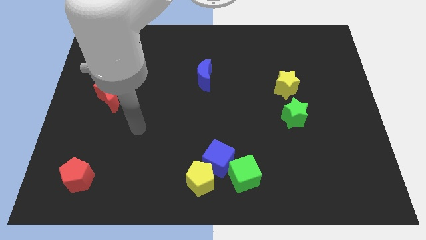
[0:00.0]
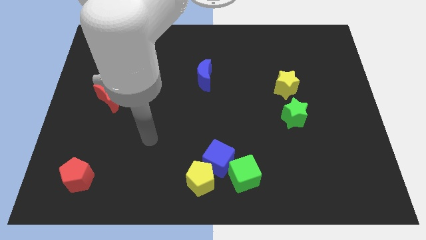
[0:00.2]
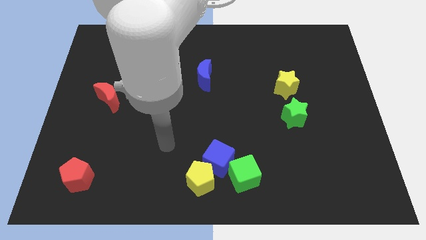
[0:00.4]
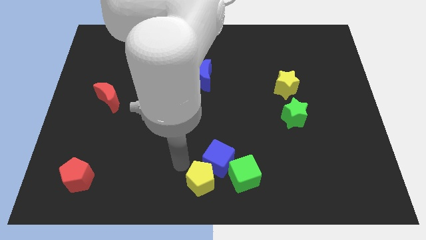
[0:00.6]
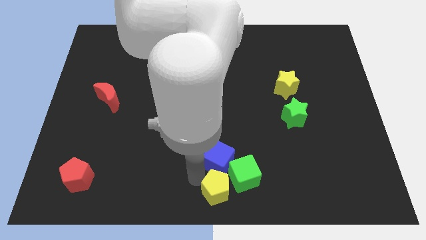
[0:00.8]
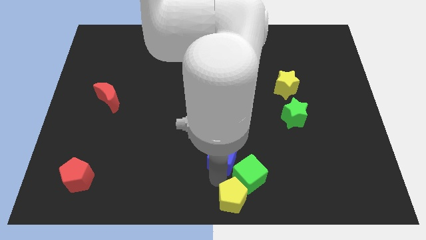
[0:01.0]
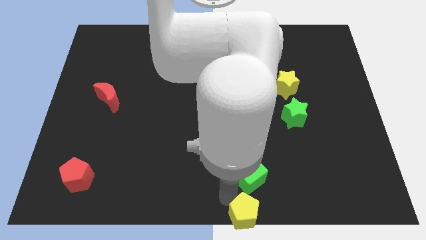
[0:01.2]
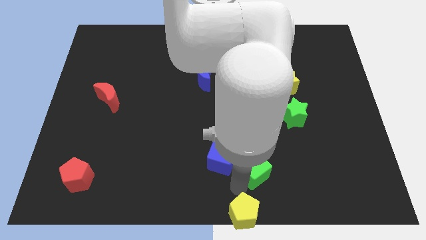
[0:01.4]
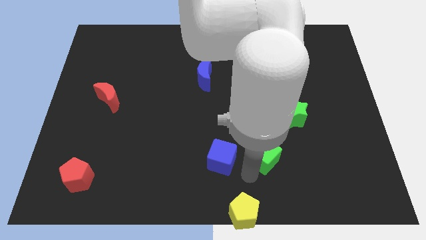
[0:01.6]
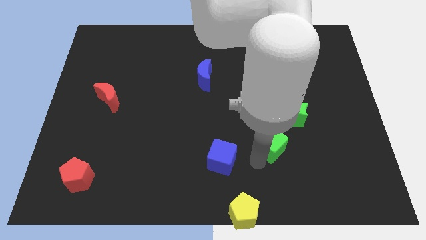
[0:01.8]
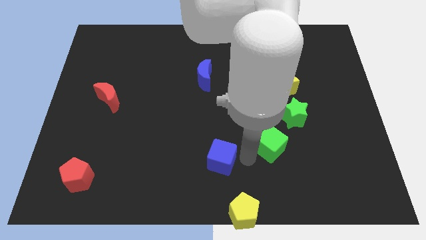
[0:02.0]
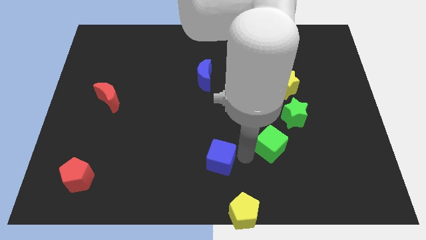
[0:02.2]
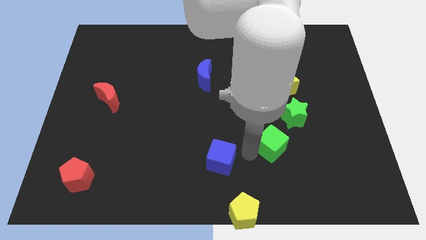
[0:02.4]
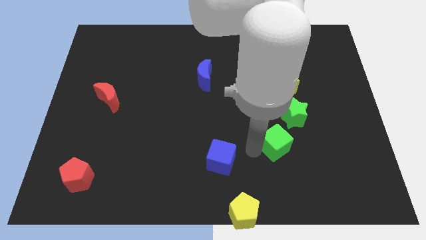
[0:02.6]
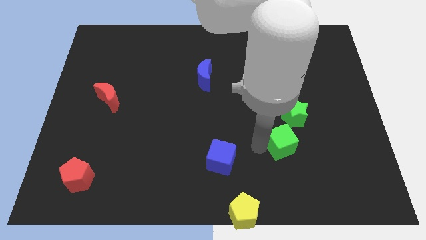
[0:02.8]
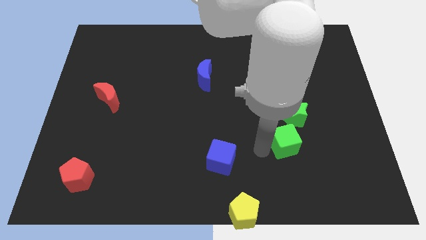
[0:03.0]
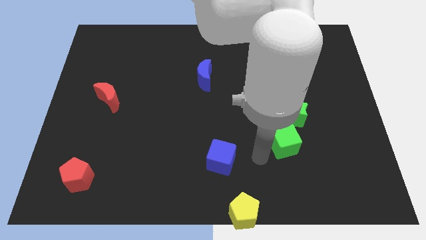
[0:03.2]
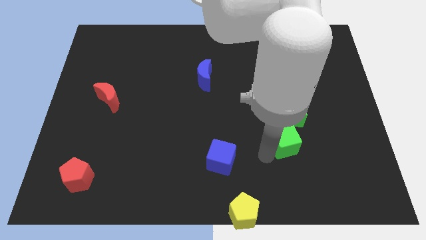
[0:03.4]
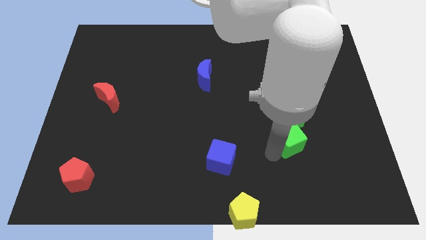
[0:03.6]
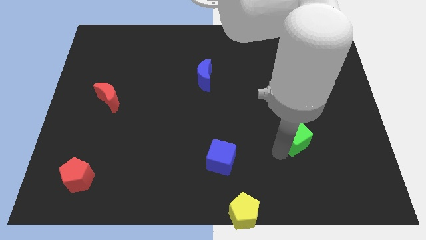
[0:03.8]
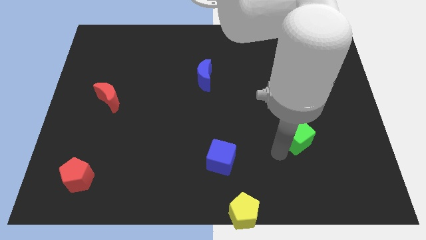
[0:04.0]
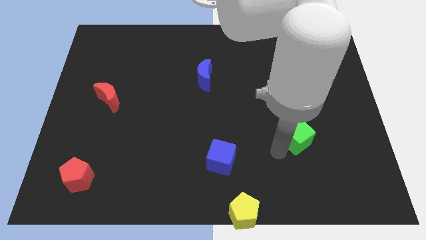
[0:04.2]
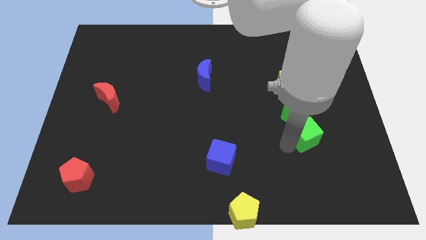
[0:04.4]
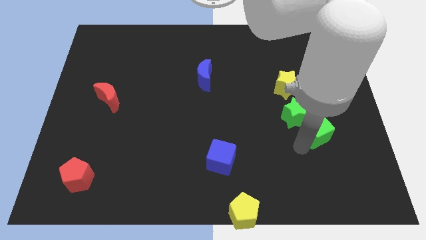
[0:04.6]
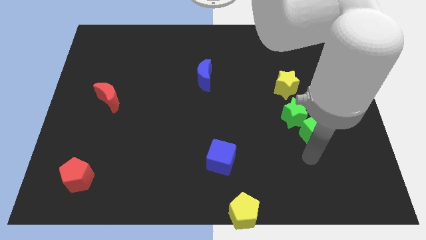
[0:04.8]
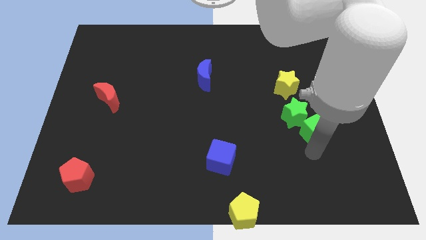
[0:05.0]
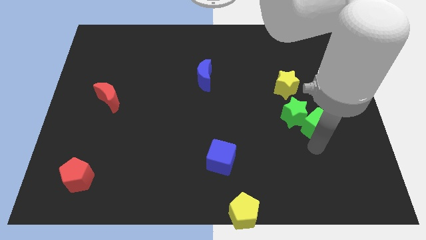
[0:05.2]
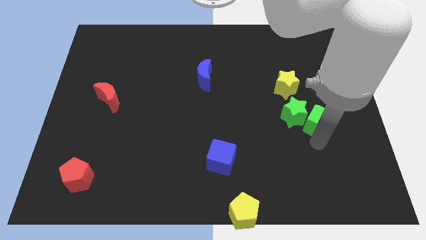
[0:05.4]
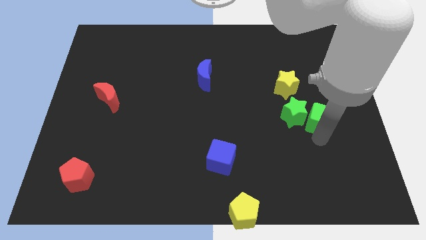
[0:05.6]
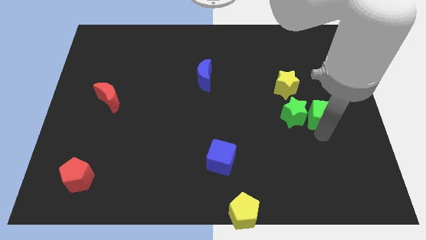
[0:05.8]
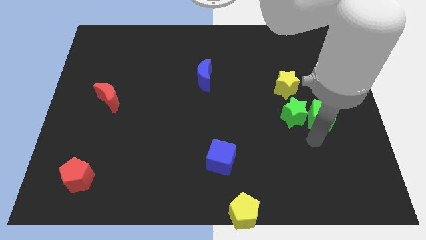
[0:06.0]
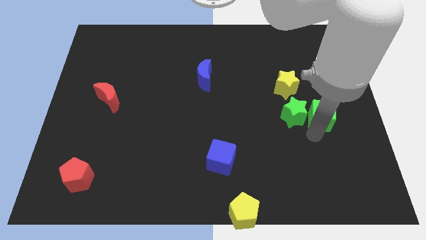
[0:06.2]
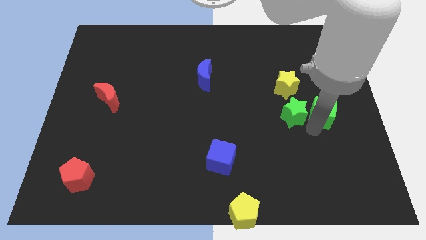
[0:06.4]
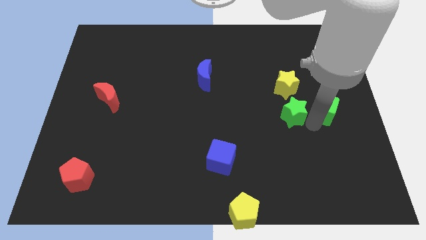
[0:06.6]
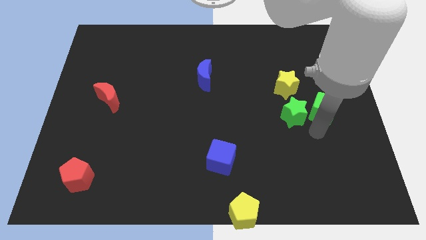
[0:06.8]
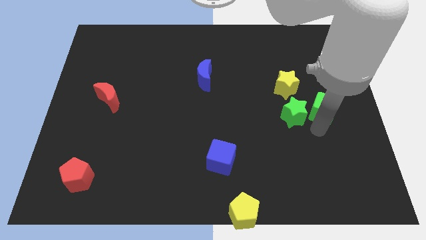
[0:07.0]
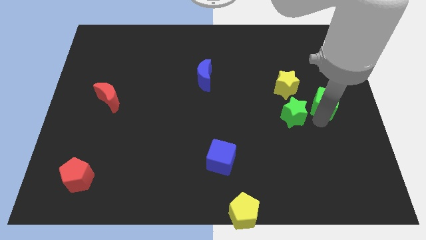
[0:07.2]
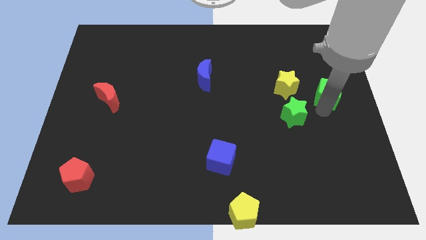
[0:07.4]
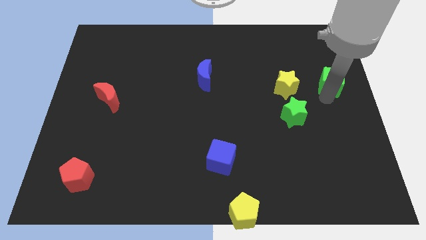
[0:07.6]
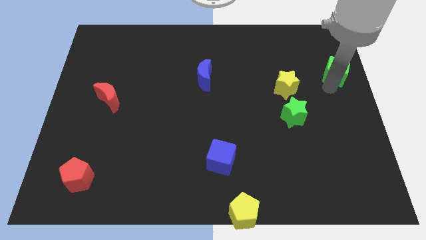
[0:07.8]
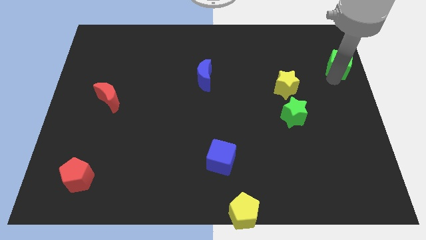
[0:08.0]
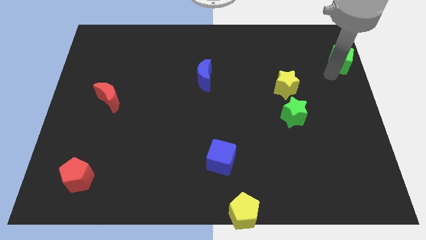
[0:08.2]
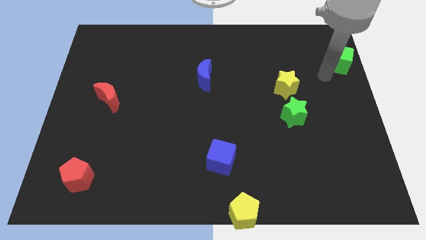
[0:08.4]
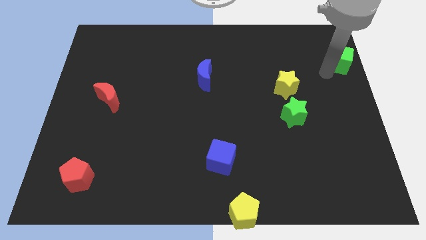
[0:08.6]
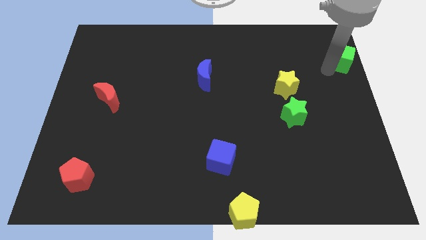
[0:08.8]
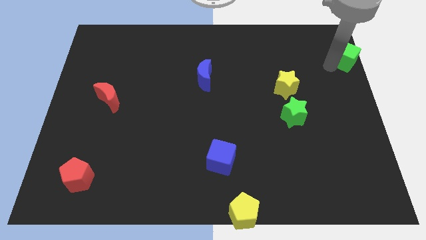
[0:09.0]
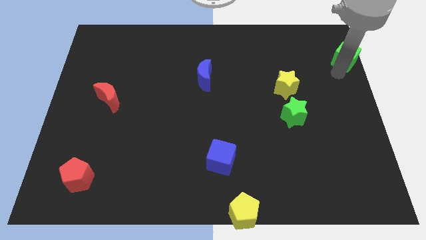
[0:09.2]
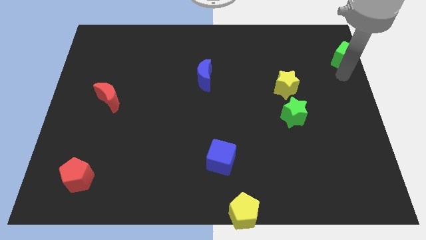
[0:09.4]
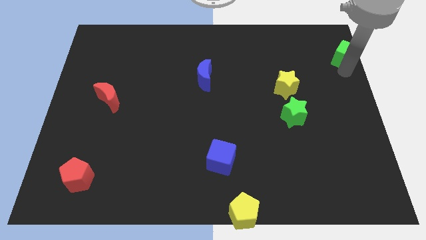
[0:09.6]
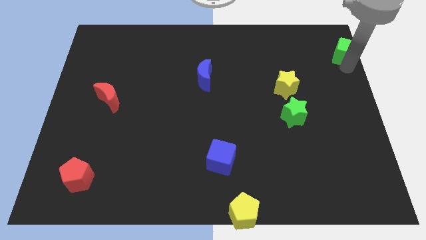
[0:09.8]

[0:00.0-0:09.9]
move the green cube to the top right corner

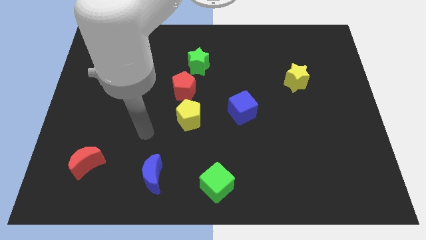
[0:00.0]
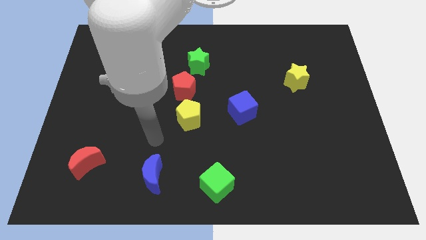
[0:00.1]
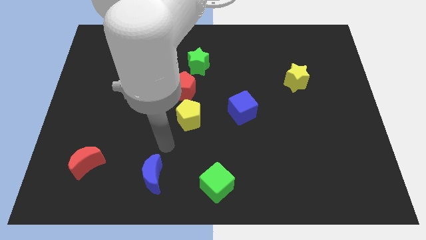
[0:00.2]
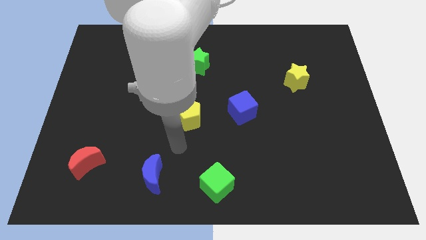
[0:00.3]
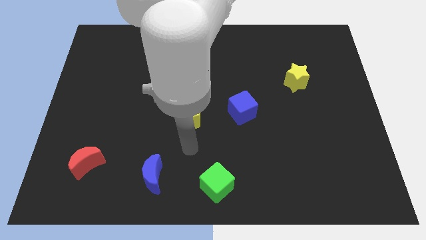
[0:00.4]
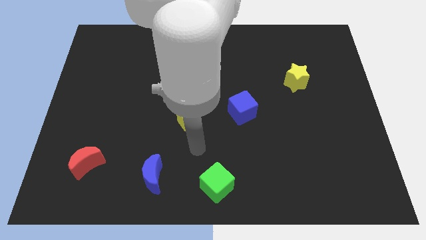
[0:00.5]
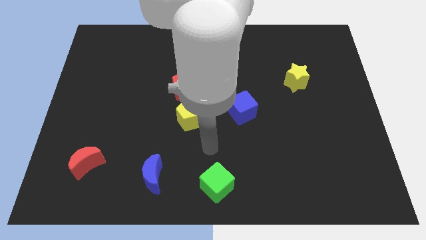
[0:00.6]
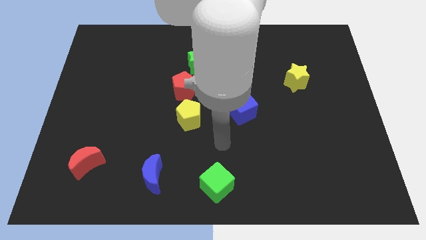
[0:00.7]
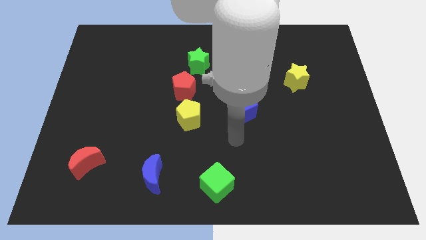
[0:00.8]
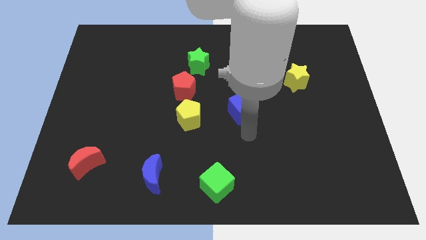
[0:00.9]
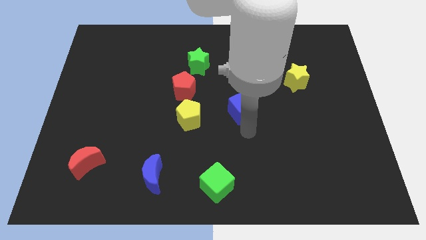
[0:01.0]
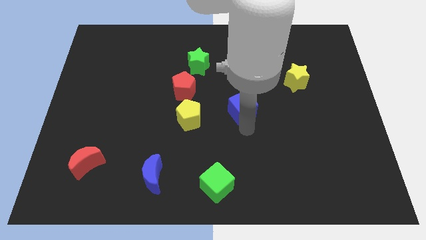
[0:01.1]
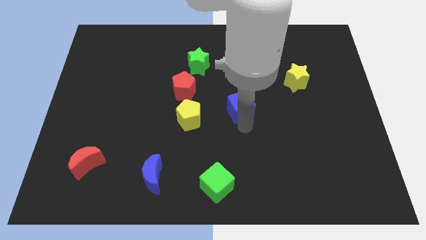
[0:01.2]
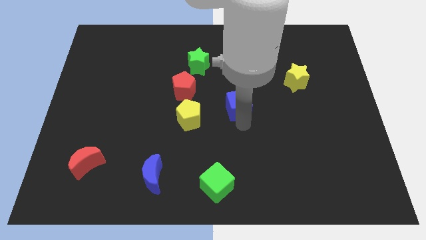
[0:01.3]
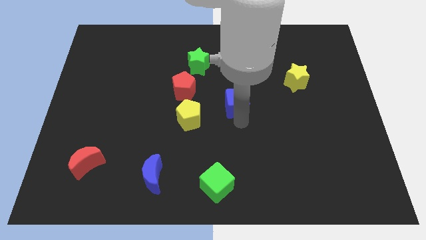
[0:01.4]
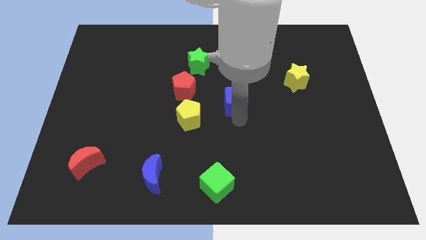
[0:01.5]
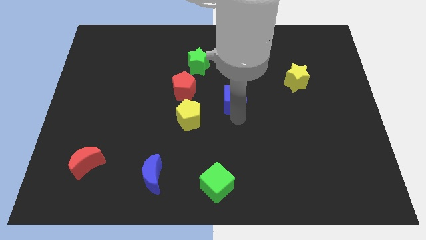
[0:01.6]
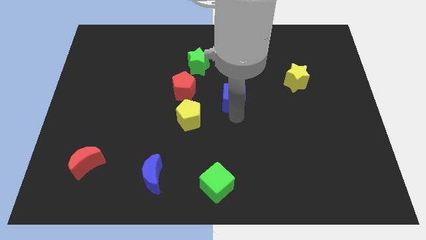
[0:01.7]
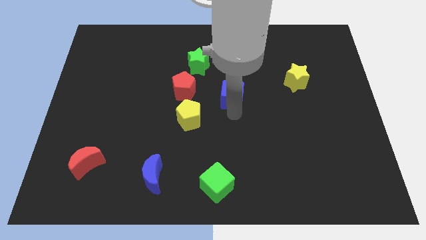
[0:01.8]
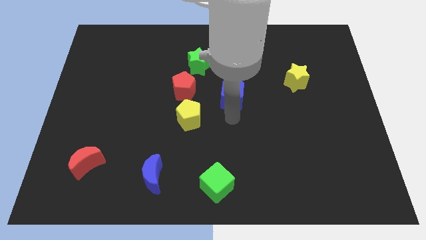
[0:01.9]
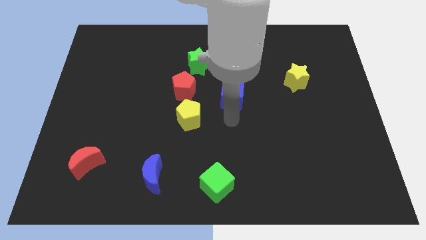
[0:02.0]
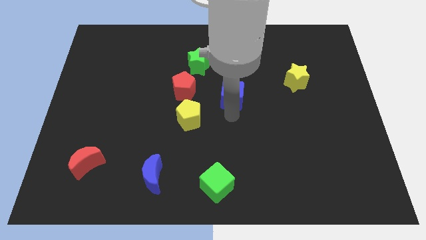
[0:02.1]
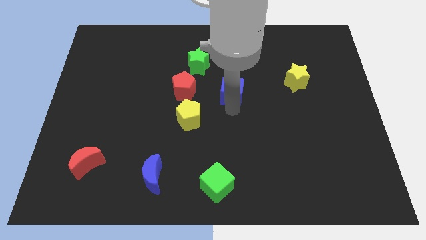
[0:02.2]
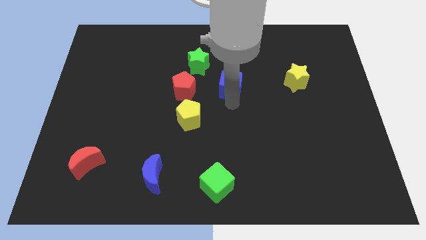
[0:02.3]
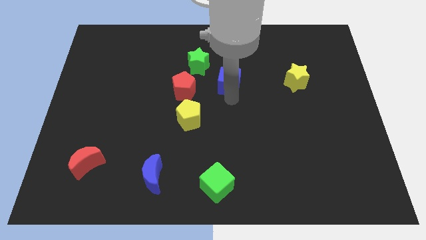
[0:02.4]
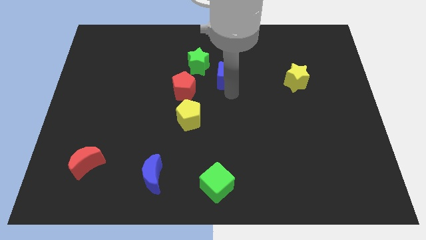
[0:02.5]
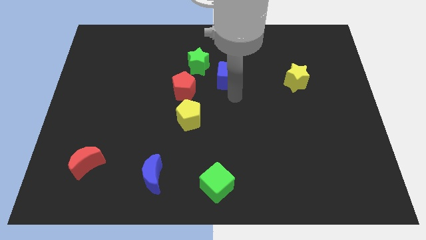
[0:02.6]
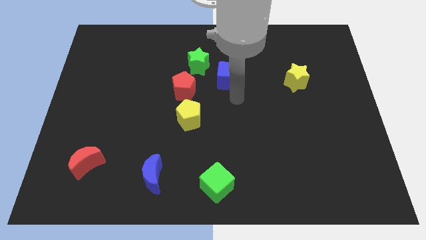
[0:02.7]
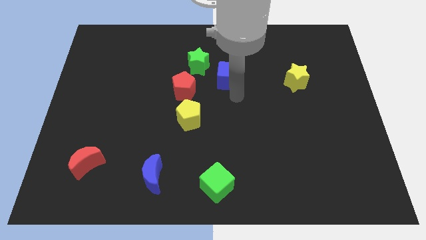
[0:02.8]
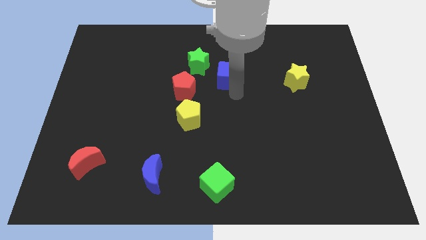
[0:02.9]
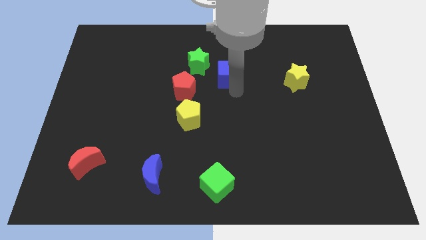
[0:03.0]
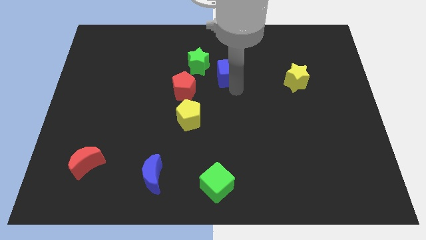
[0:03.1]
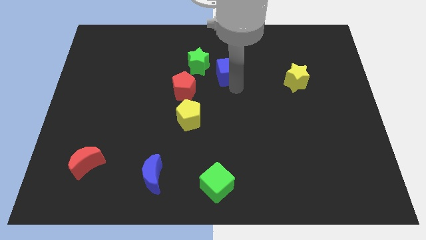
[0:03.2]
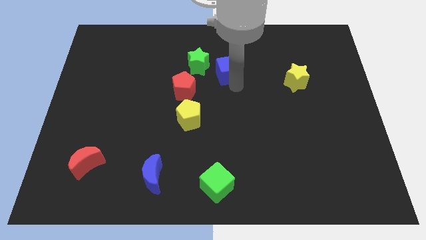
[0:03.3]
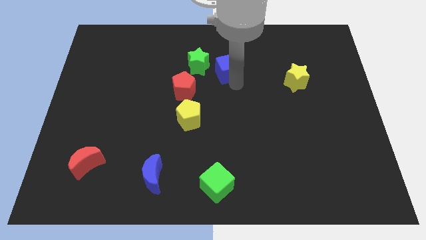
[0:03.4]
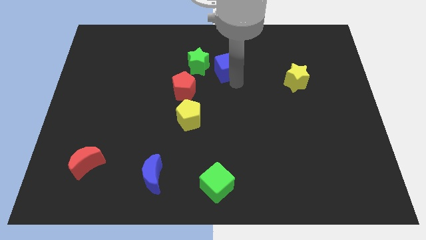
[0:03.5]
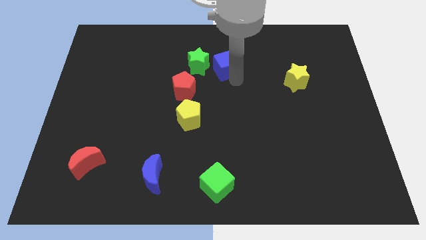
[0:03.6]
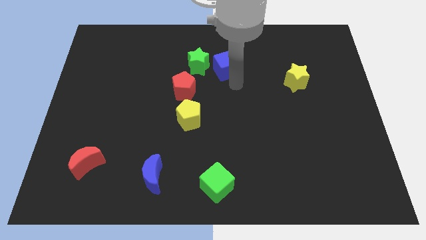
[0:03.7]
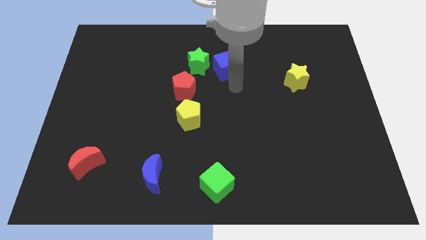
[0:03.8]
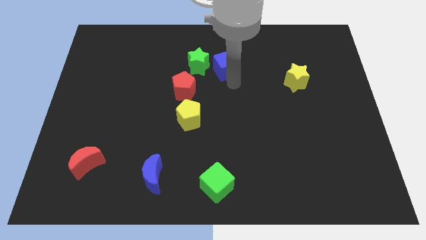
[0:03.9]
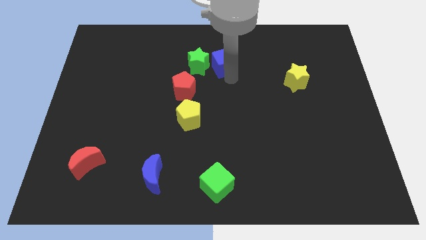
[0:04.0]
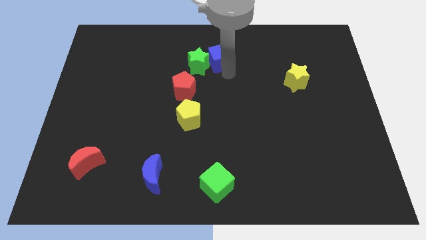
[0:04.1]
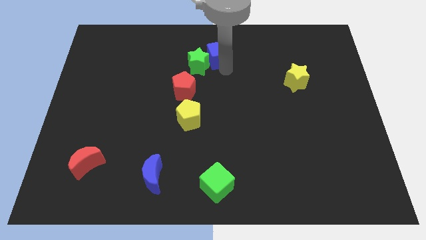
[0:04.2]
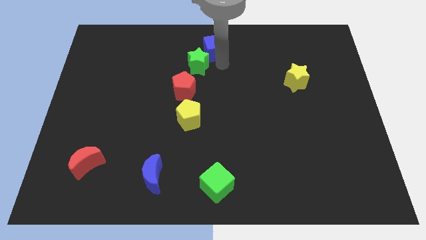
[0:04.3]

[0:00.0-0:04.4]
push the blue cube to the top side
